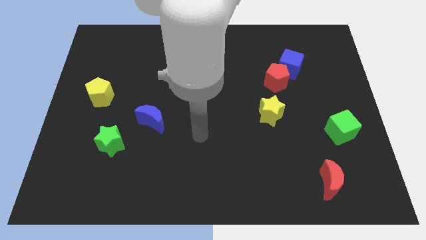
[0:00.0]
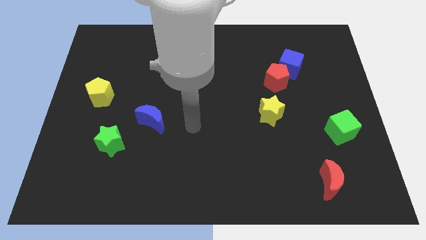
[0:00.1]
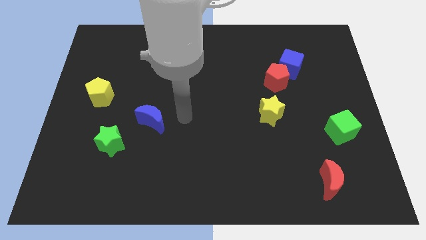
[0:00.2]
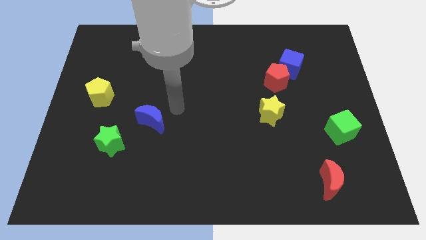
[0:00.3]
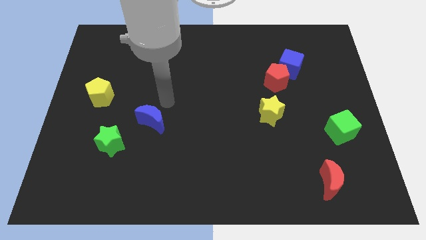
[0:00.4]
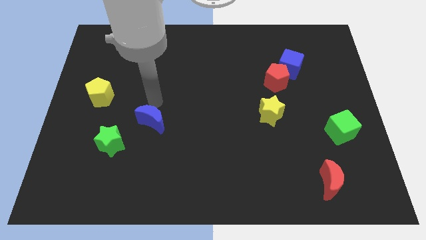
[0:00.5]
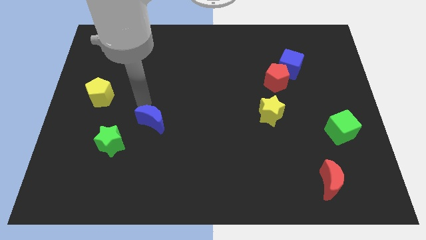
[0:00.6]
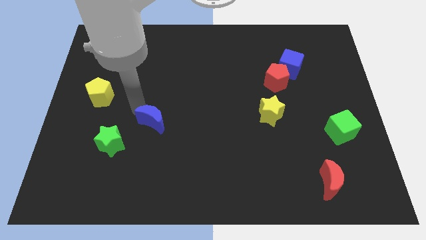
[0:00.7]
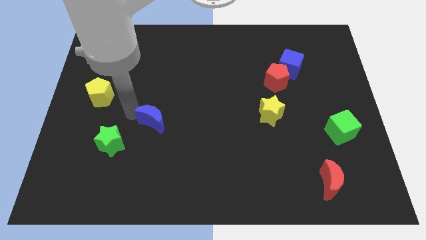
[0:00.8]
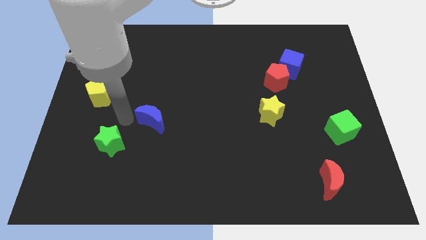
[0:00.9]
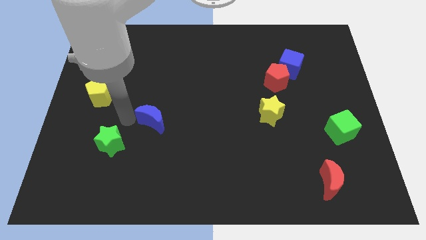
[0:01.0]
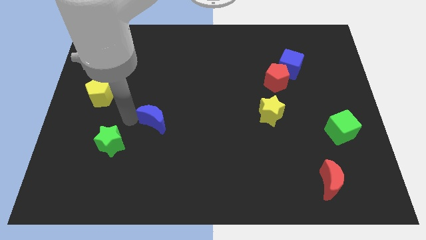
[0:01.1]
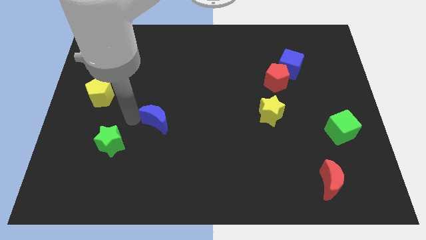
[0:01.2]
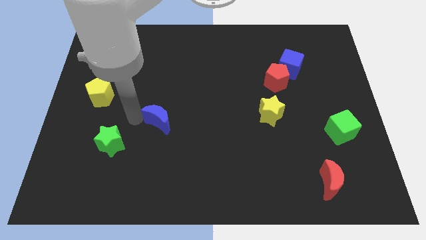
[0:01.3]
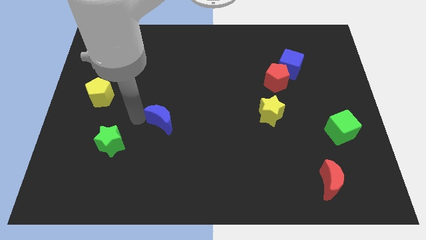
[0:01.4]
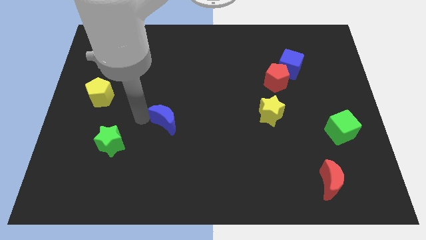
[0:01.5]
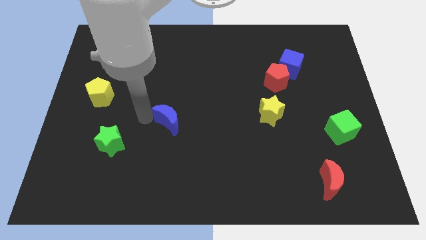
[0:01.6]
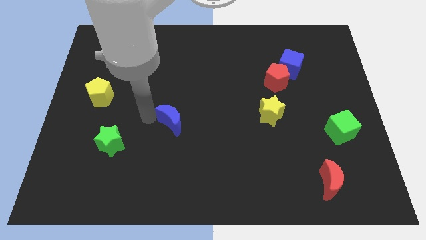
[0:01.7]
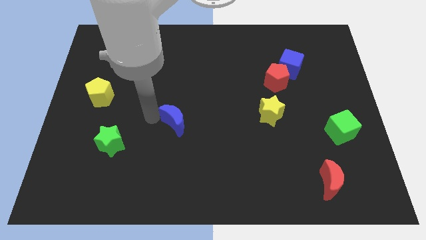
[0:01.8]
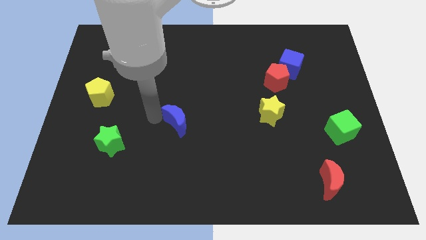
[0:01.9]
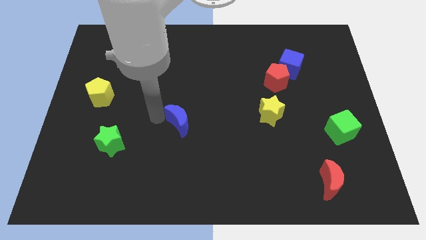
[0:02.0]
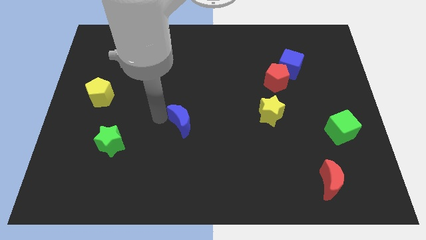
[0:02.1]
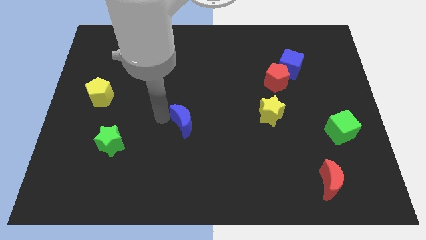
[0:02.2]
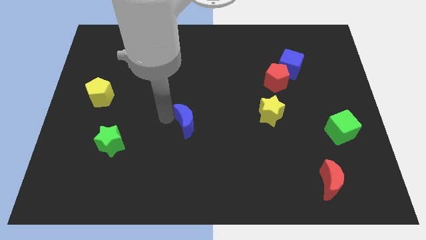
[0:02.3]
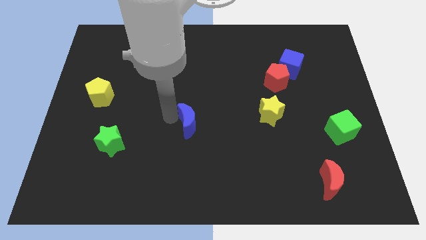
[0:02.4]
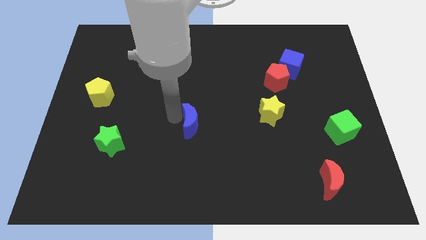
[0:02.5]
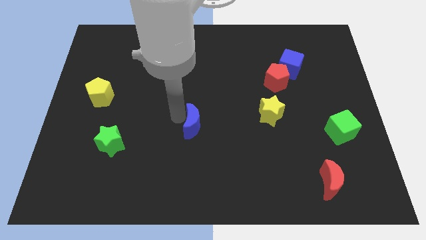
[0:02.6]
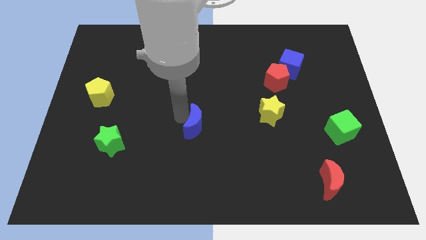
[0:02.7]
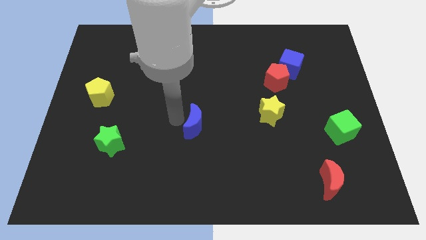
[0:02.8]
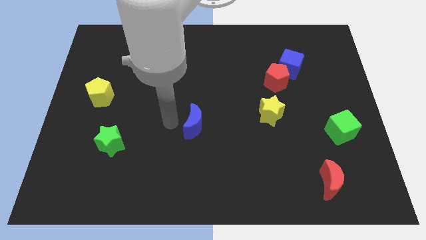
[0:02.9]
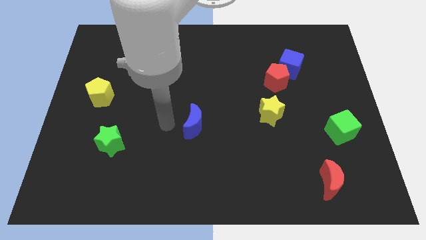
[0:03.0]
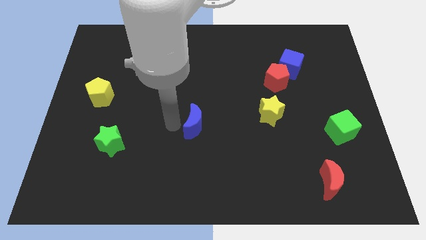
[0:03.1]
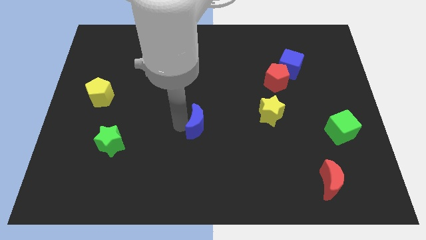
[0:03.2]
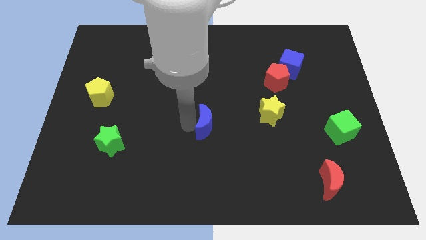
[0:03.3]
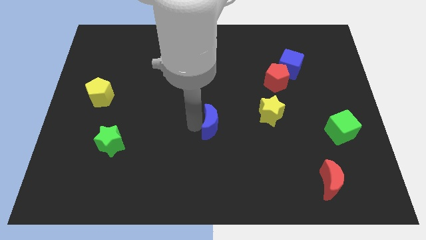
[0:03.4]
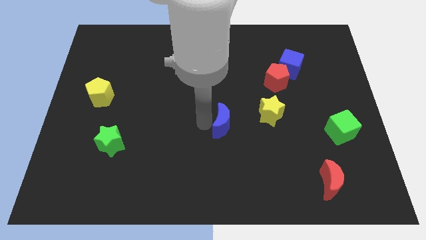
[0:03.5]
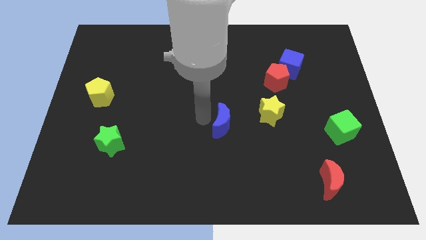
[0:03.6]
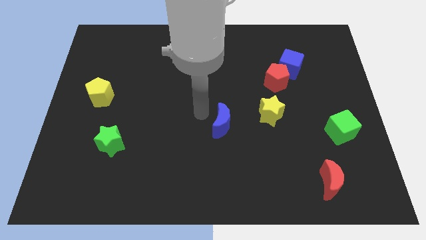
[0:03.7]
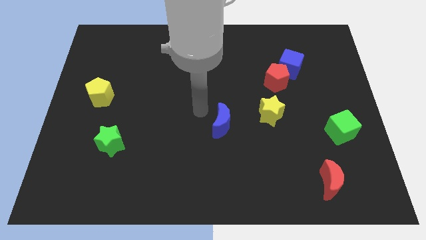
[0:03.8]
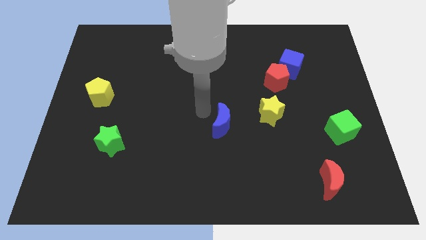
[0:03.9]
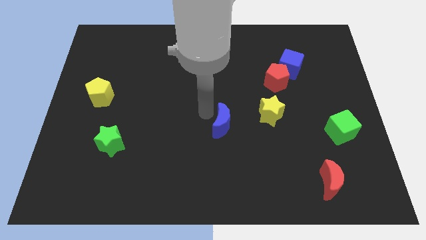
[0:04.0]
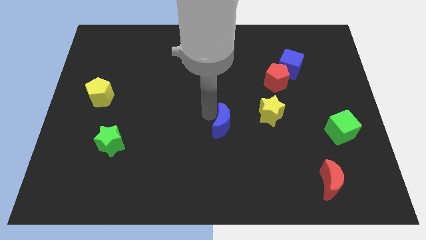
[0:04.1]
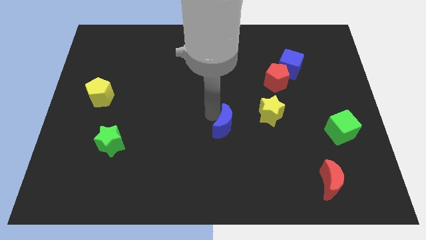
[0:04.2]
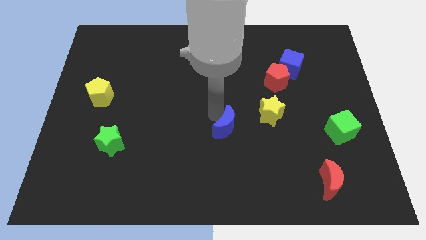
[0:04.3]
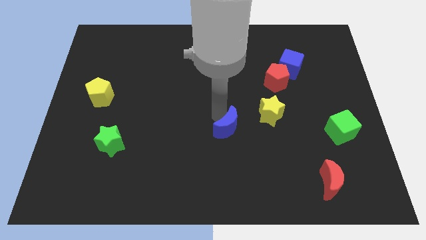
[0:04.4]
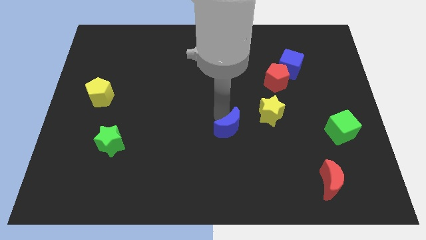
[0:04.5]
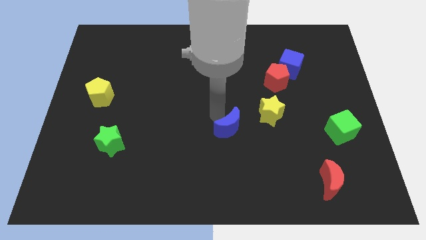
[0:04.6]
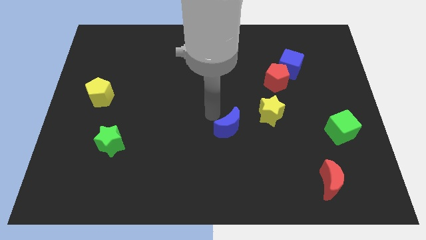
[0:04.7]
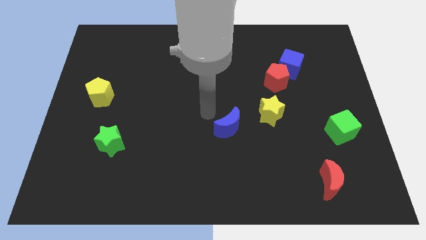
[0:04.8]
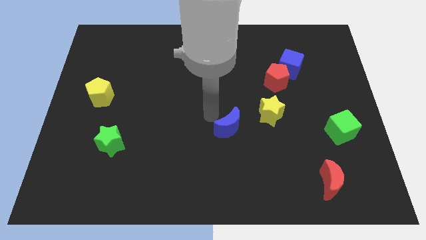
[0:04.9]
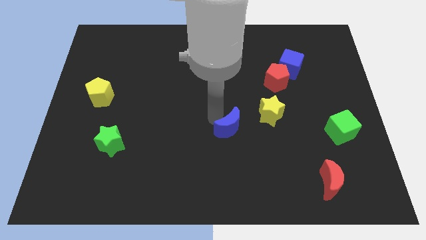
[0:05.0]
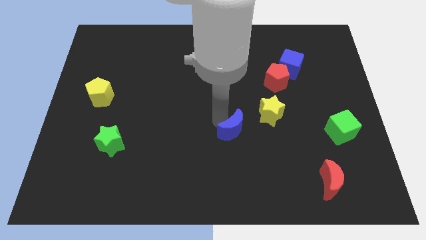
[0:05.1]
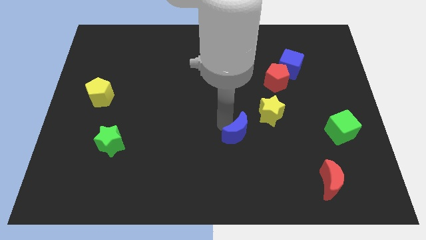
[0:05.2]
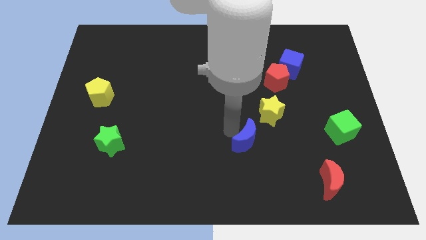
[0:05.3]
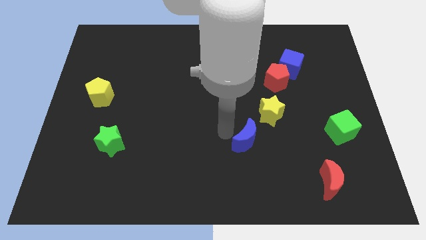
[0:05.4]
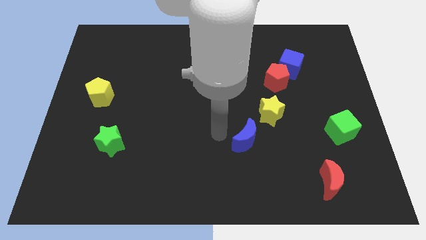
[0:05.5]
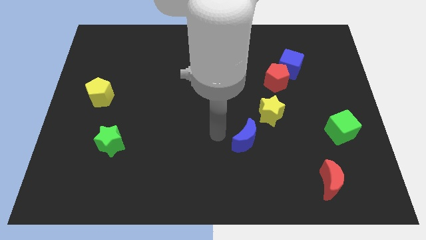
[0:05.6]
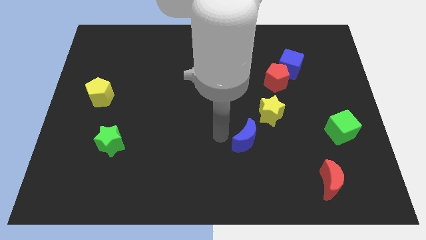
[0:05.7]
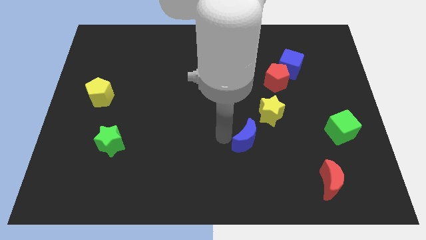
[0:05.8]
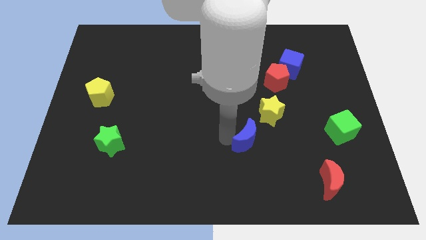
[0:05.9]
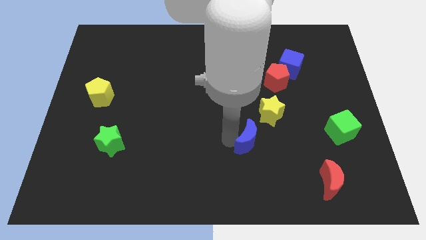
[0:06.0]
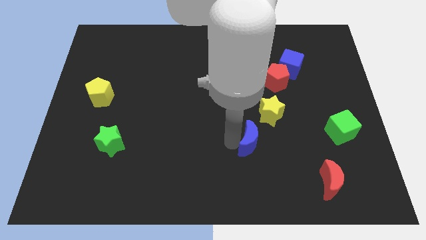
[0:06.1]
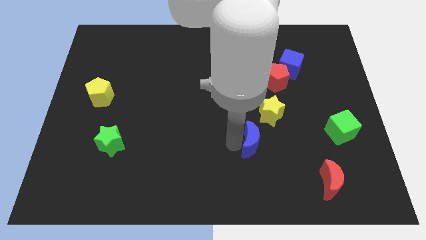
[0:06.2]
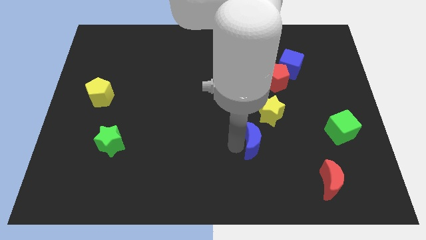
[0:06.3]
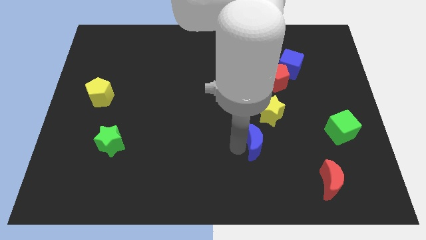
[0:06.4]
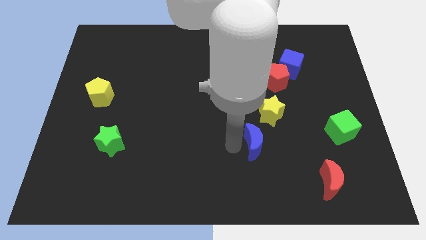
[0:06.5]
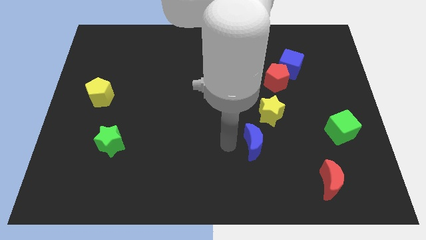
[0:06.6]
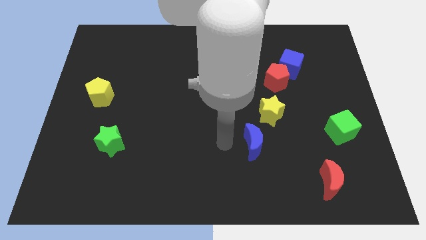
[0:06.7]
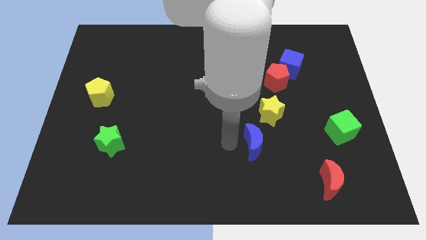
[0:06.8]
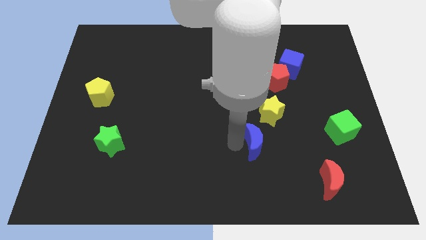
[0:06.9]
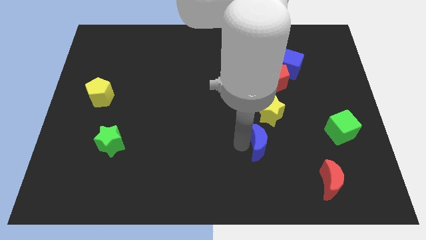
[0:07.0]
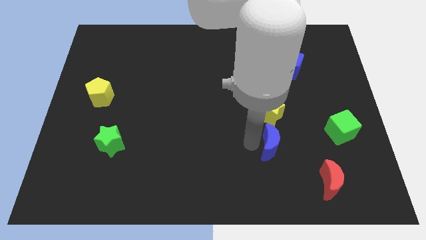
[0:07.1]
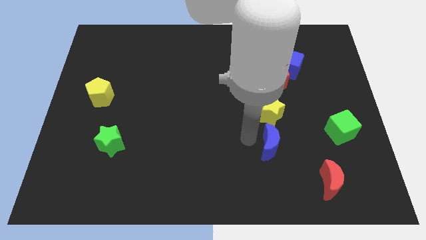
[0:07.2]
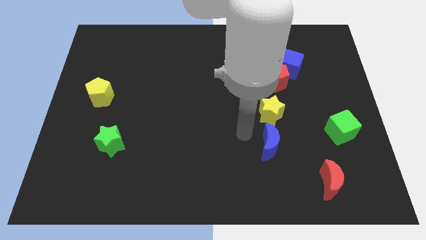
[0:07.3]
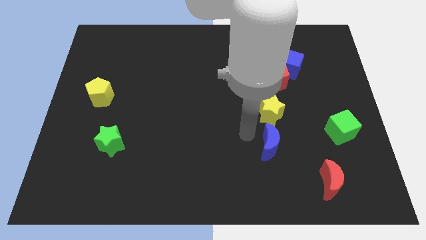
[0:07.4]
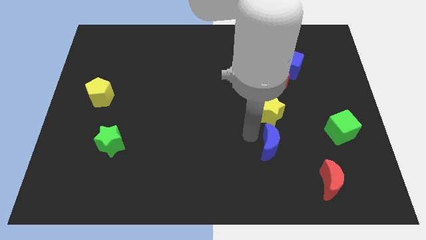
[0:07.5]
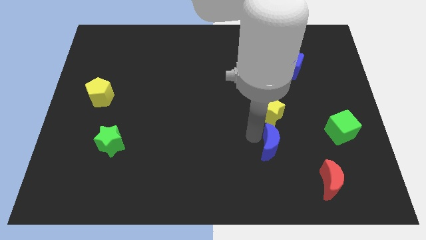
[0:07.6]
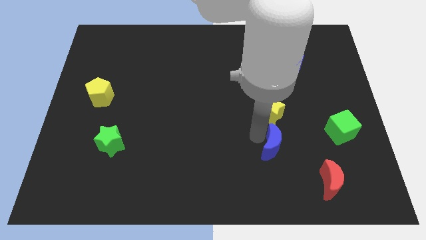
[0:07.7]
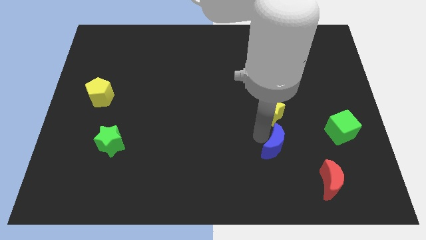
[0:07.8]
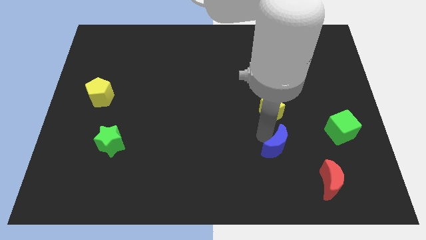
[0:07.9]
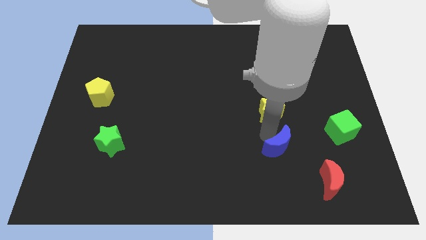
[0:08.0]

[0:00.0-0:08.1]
push the blue moon to the top left side of the red moon
